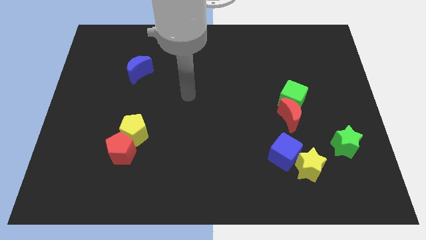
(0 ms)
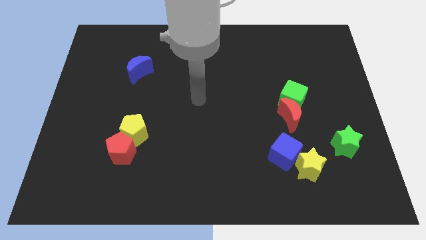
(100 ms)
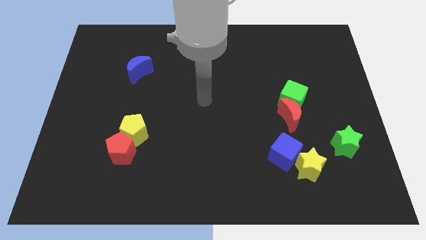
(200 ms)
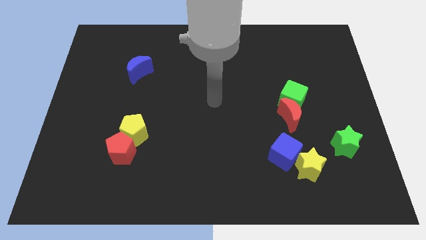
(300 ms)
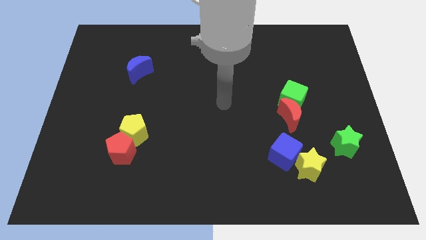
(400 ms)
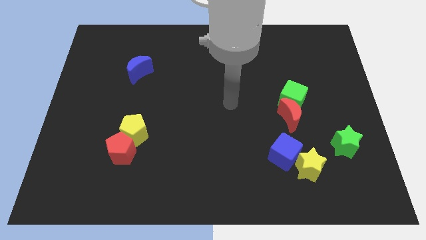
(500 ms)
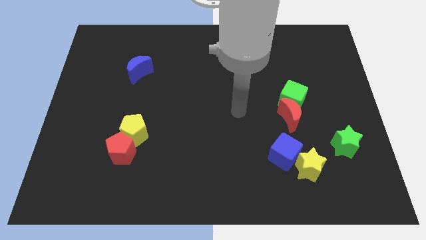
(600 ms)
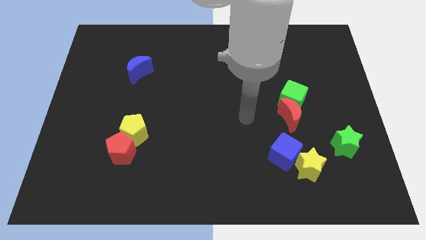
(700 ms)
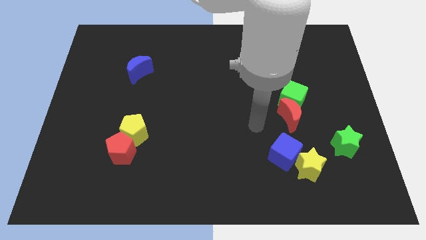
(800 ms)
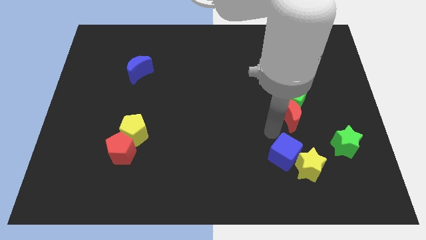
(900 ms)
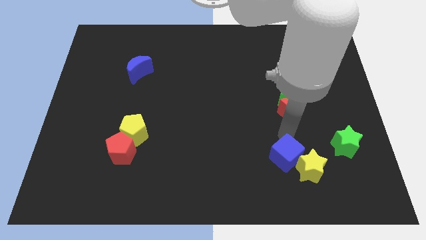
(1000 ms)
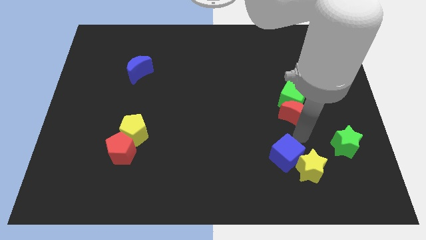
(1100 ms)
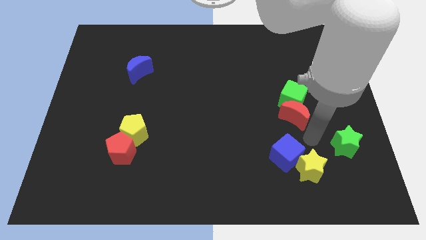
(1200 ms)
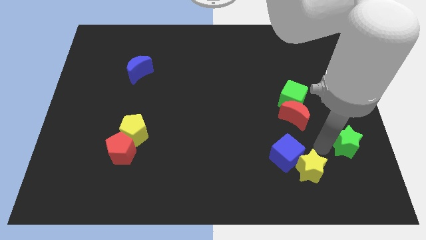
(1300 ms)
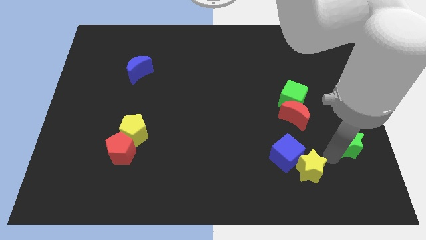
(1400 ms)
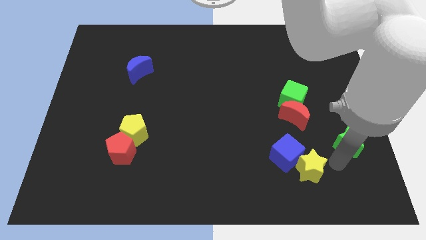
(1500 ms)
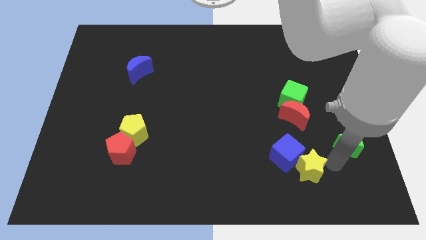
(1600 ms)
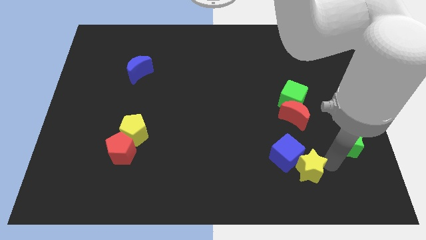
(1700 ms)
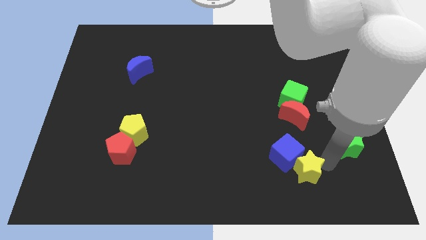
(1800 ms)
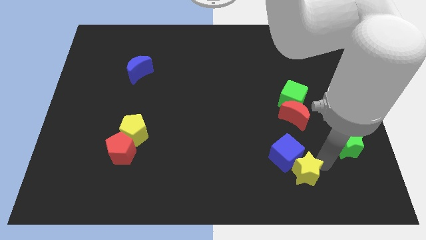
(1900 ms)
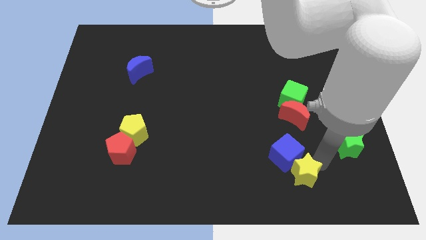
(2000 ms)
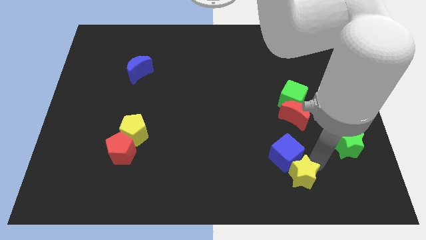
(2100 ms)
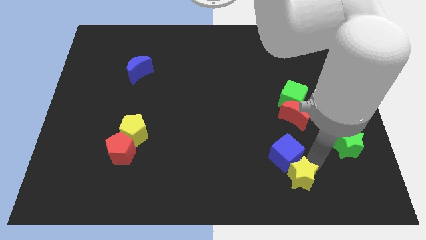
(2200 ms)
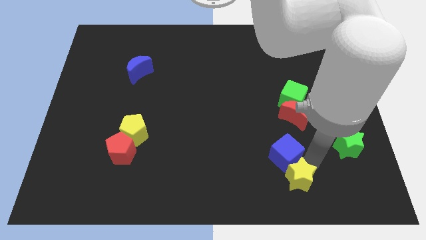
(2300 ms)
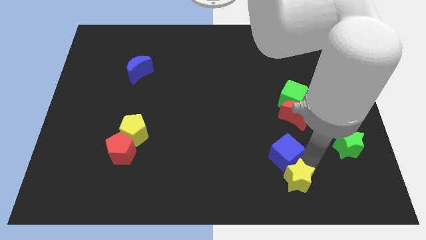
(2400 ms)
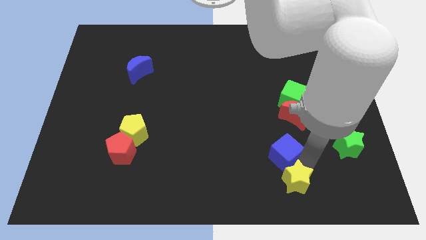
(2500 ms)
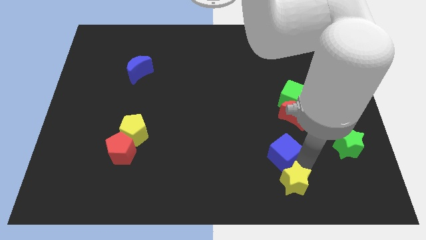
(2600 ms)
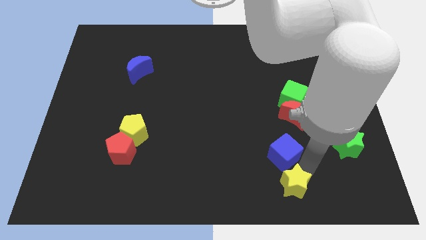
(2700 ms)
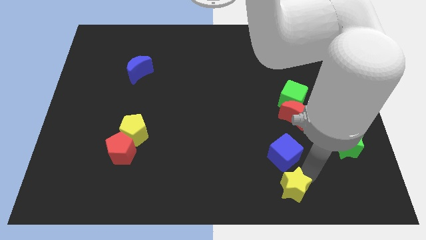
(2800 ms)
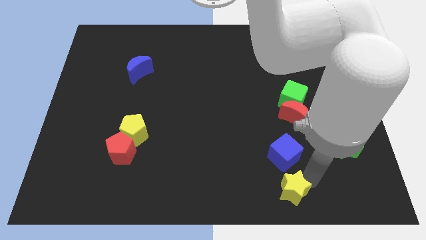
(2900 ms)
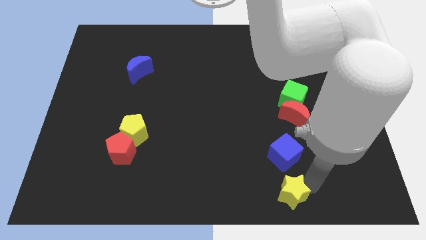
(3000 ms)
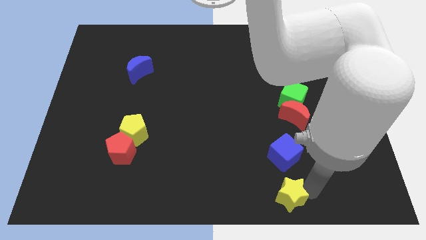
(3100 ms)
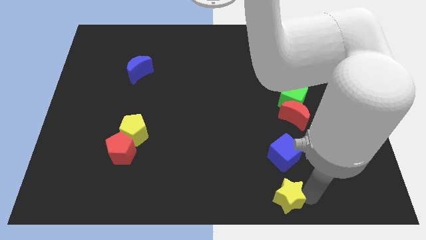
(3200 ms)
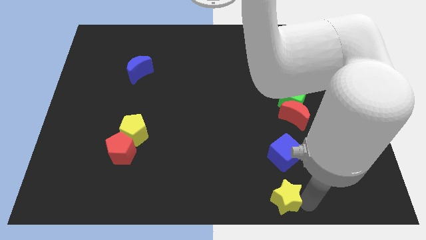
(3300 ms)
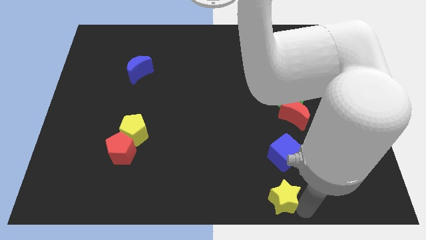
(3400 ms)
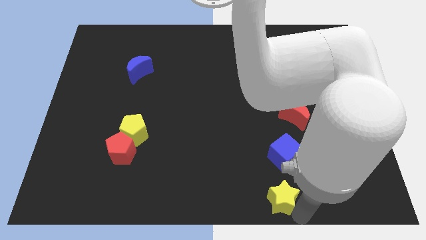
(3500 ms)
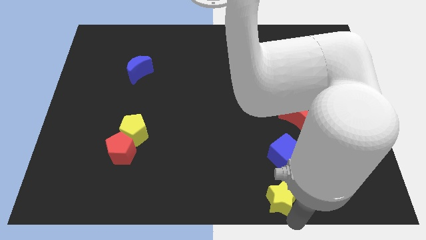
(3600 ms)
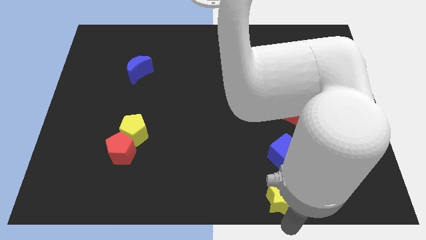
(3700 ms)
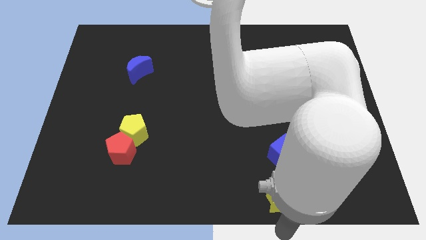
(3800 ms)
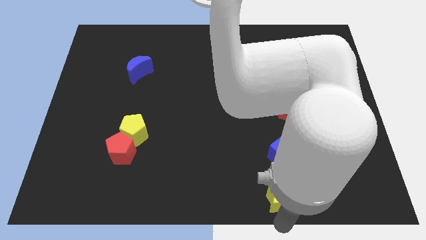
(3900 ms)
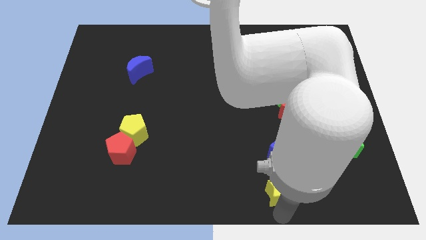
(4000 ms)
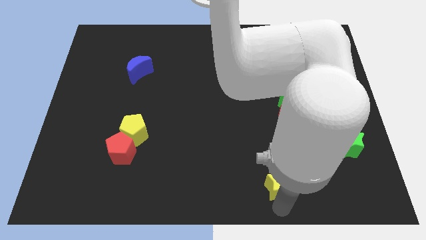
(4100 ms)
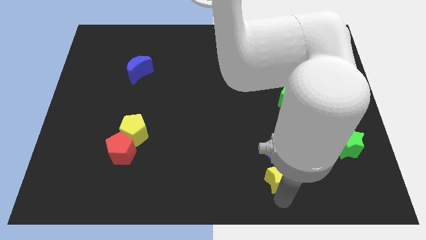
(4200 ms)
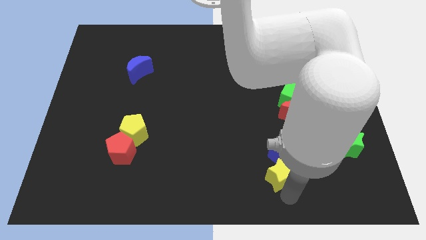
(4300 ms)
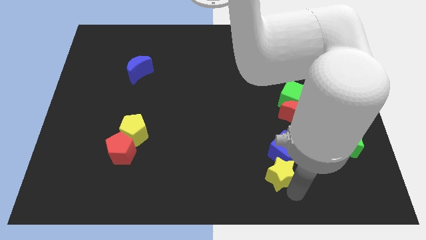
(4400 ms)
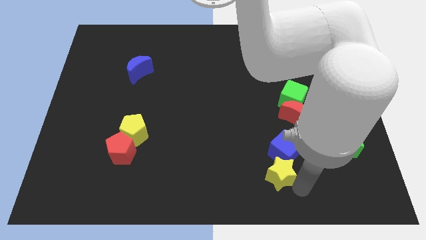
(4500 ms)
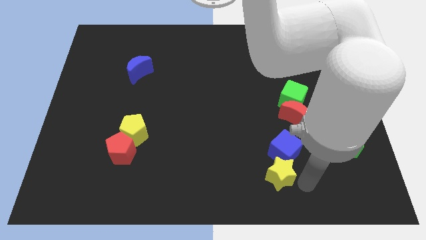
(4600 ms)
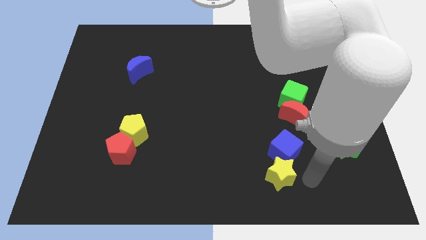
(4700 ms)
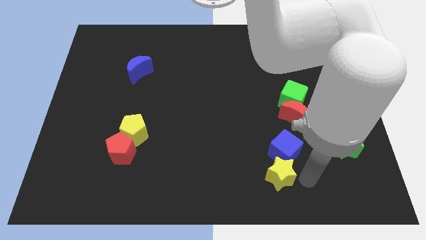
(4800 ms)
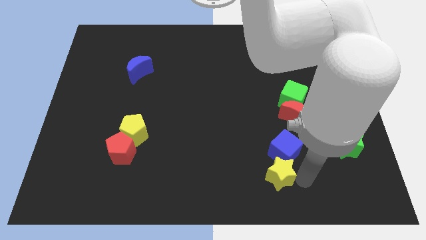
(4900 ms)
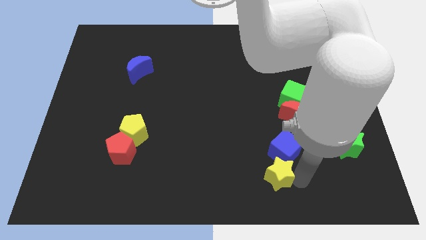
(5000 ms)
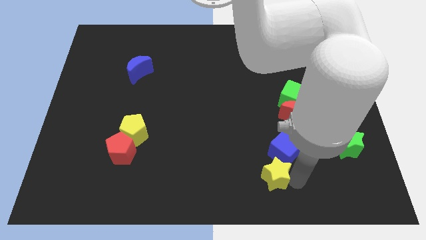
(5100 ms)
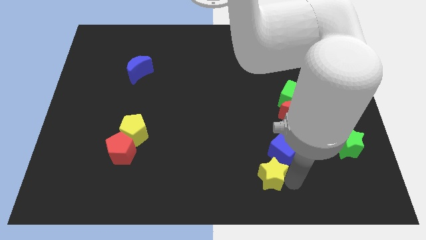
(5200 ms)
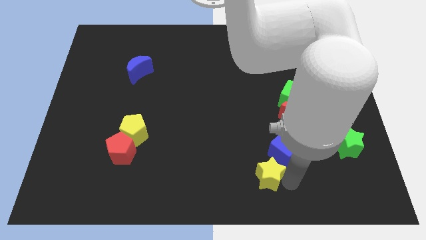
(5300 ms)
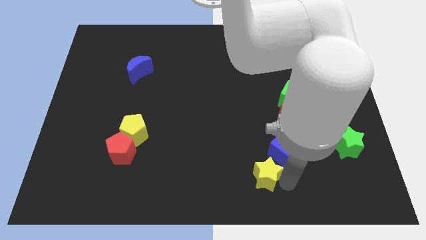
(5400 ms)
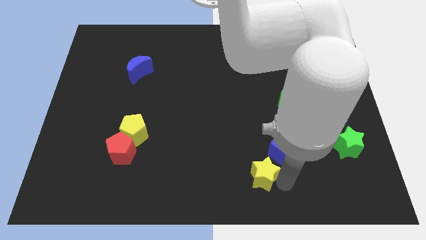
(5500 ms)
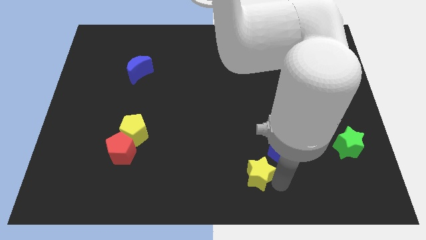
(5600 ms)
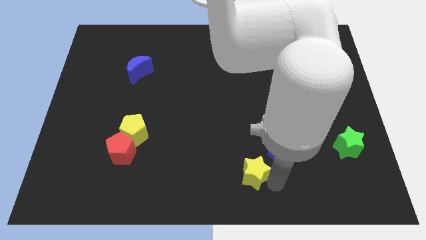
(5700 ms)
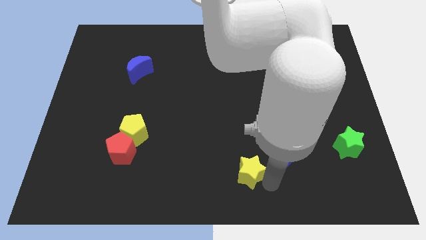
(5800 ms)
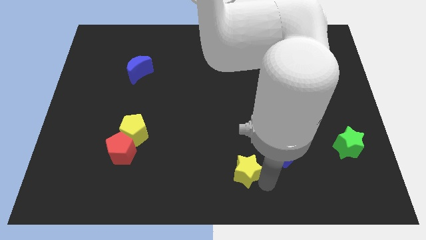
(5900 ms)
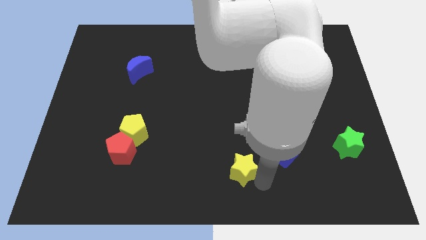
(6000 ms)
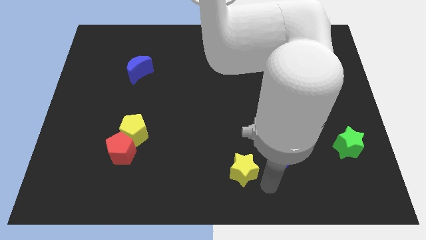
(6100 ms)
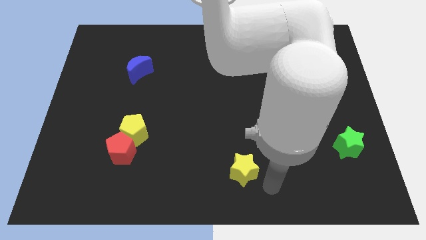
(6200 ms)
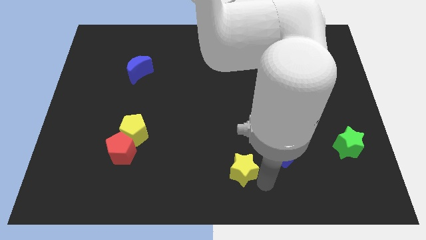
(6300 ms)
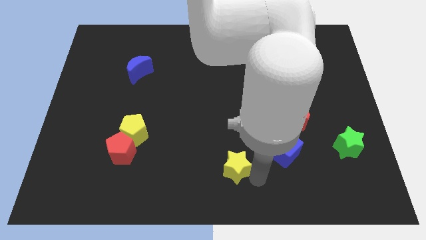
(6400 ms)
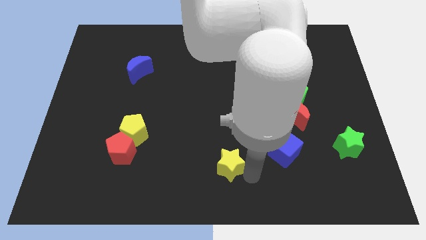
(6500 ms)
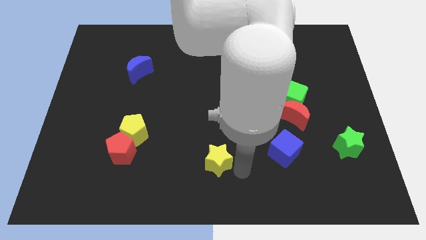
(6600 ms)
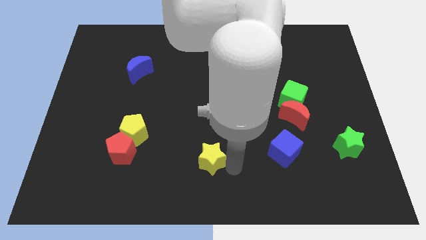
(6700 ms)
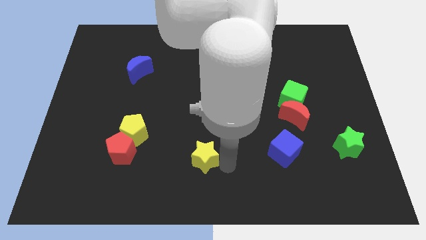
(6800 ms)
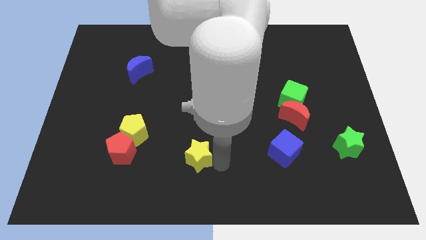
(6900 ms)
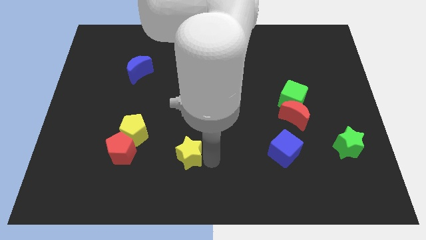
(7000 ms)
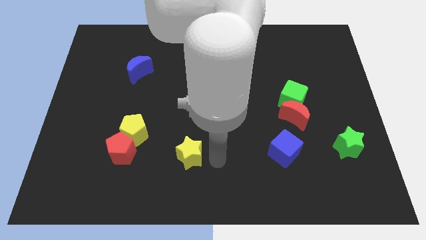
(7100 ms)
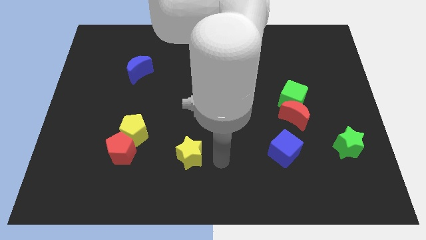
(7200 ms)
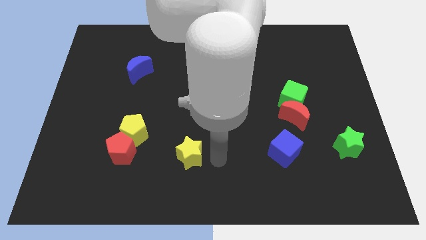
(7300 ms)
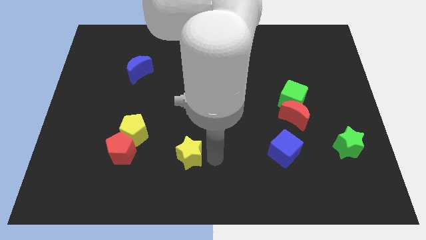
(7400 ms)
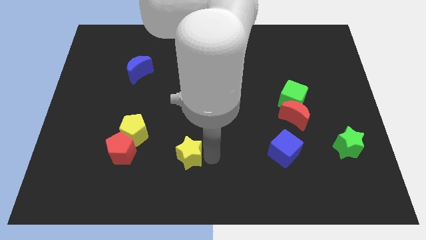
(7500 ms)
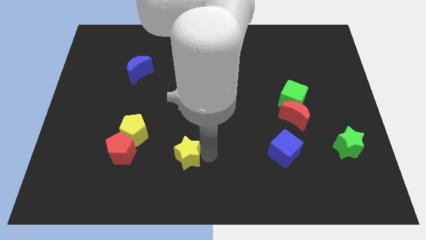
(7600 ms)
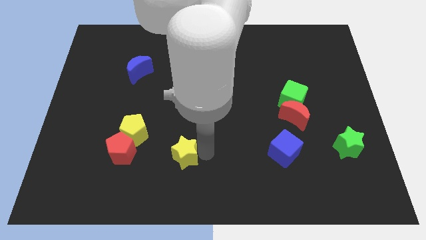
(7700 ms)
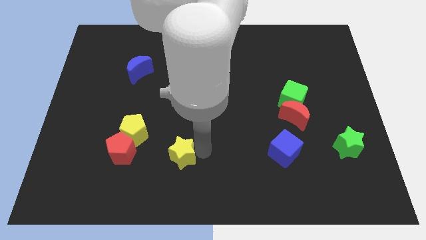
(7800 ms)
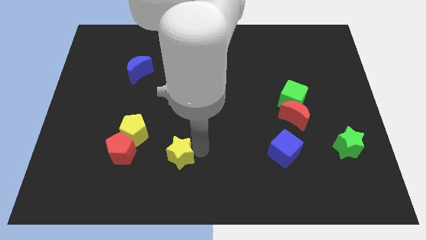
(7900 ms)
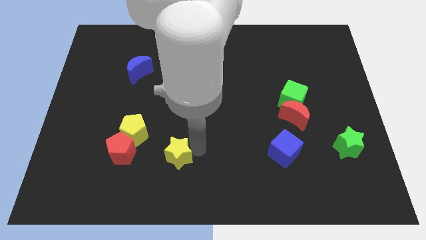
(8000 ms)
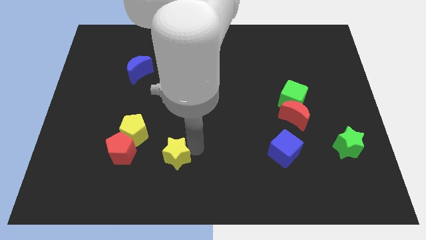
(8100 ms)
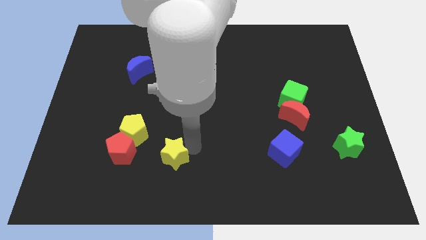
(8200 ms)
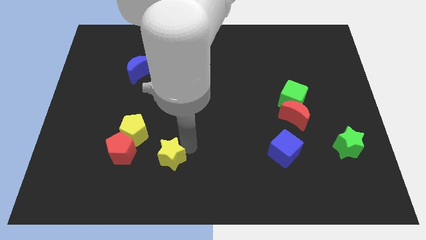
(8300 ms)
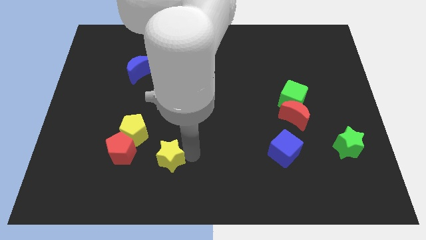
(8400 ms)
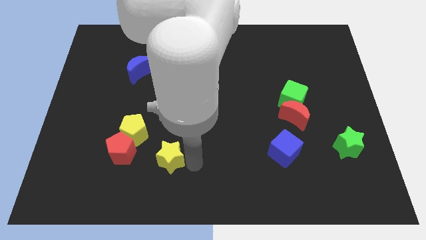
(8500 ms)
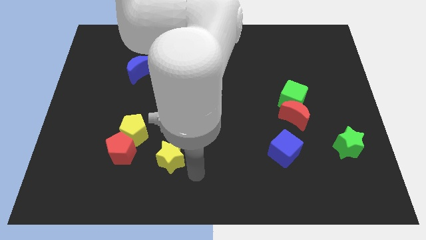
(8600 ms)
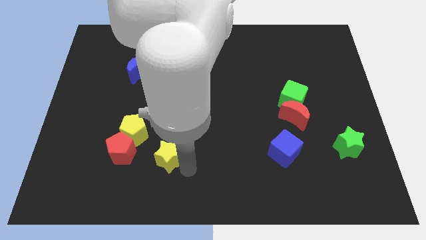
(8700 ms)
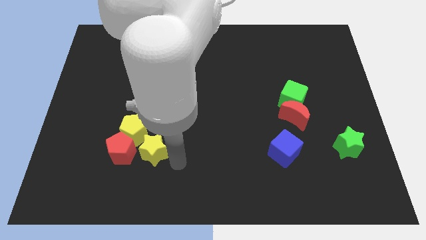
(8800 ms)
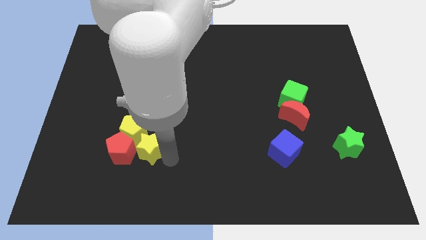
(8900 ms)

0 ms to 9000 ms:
put the yellow star close to the yellow pentagon
